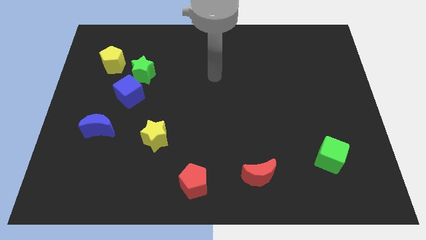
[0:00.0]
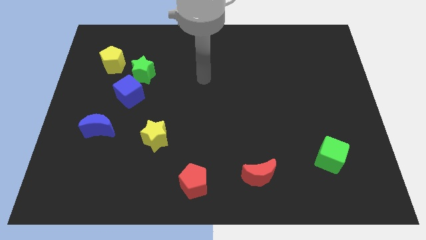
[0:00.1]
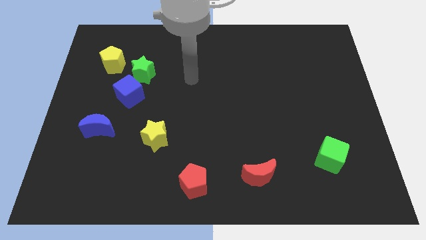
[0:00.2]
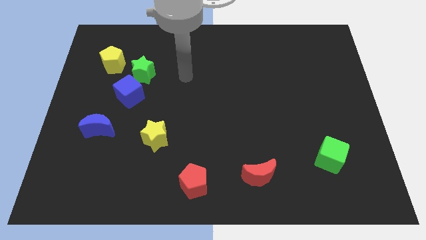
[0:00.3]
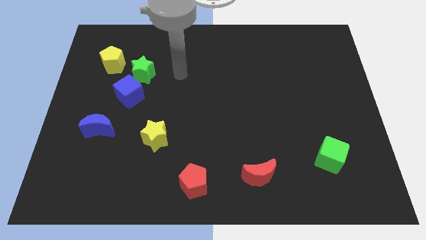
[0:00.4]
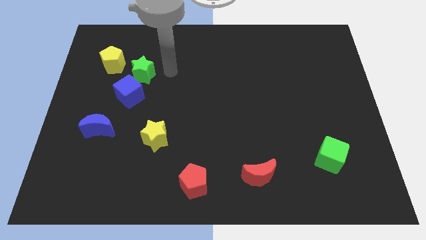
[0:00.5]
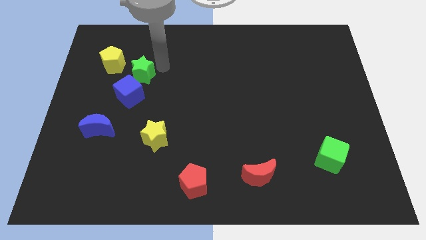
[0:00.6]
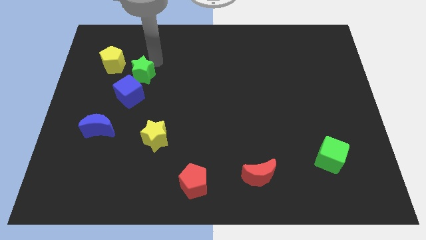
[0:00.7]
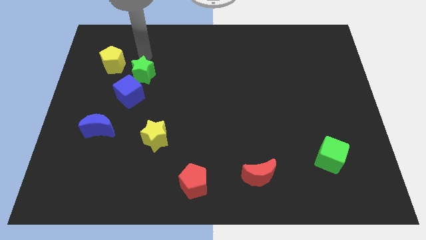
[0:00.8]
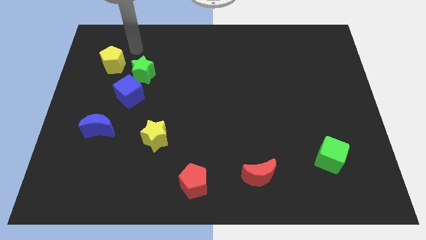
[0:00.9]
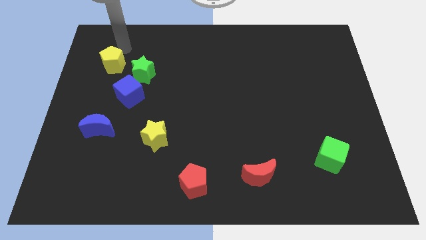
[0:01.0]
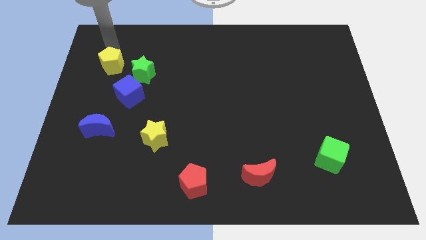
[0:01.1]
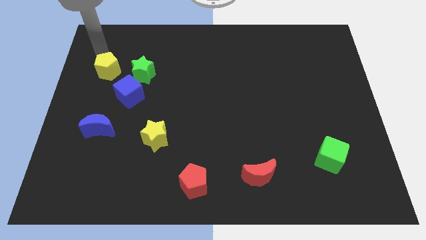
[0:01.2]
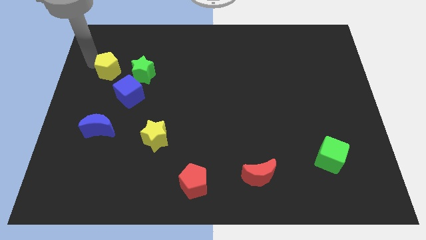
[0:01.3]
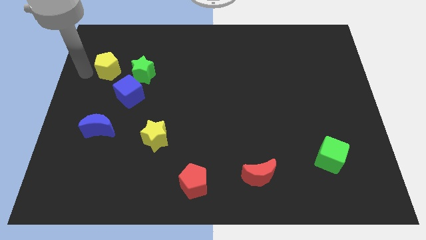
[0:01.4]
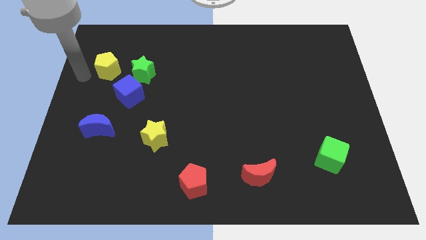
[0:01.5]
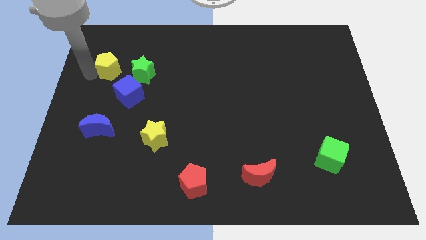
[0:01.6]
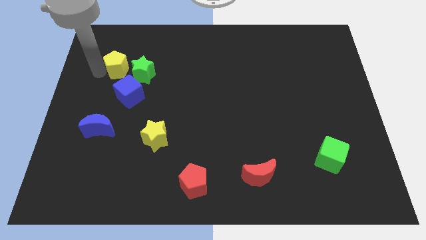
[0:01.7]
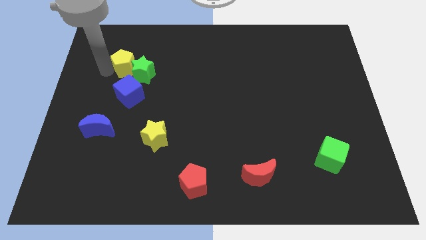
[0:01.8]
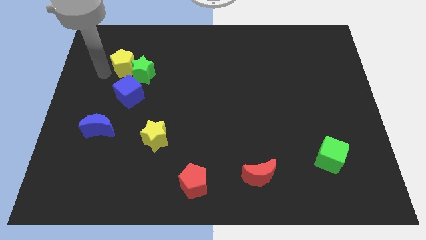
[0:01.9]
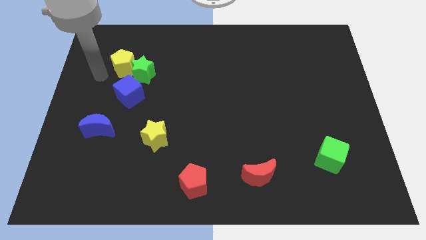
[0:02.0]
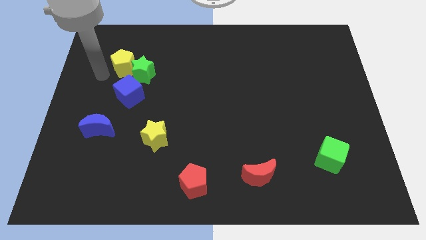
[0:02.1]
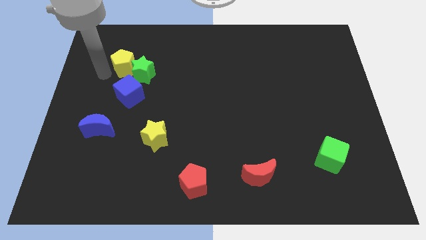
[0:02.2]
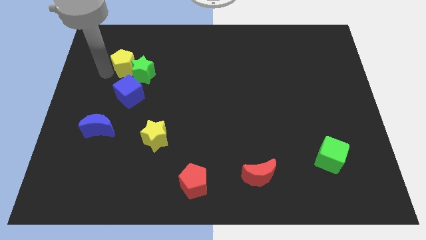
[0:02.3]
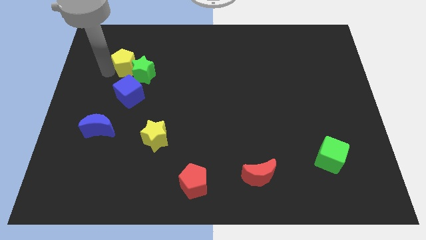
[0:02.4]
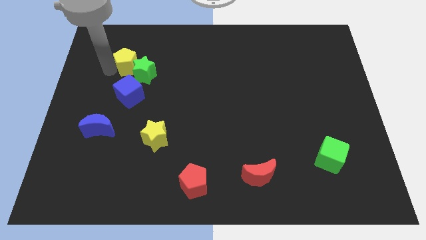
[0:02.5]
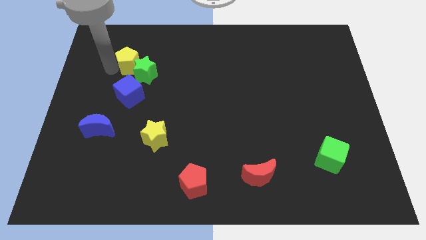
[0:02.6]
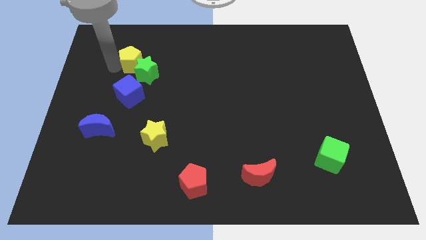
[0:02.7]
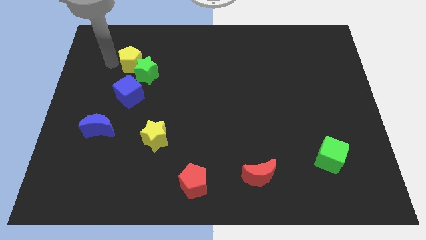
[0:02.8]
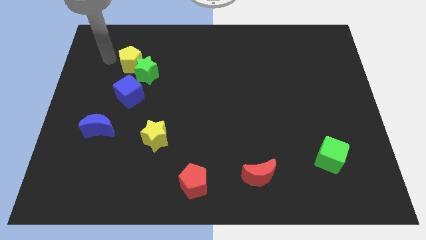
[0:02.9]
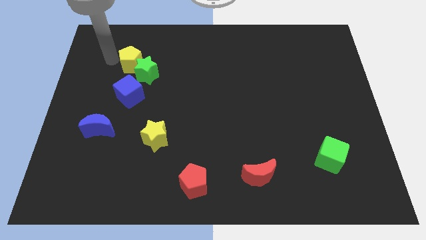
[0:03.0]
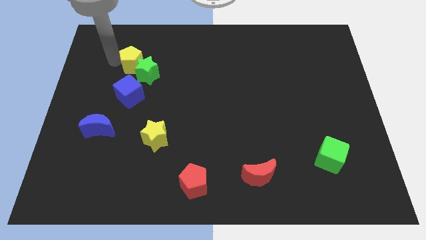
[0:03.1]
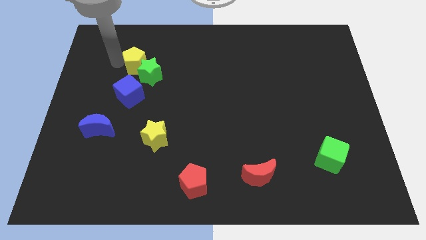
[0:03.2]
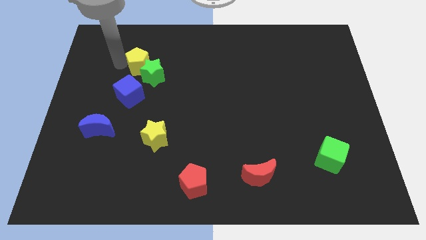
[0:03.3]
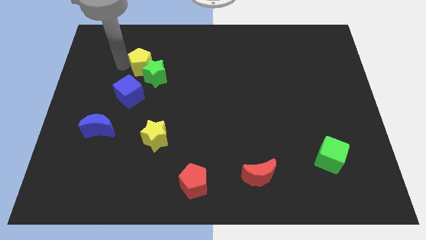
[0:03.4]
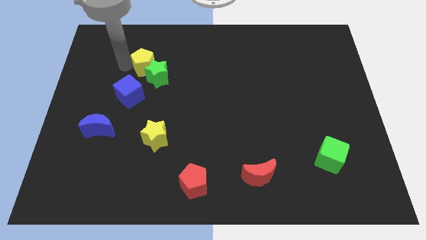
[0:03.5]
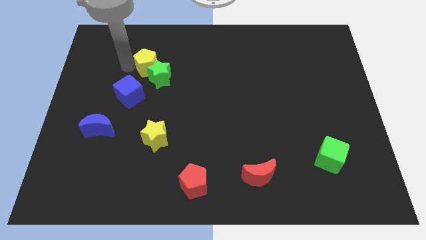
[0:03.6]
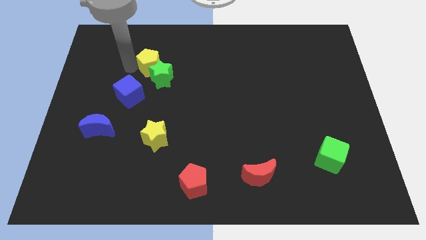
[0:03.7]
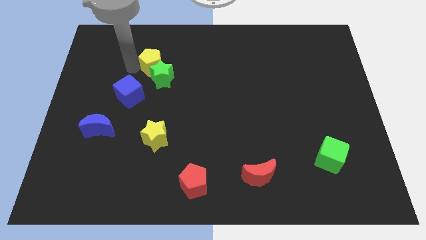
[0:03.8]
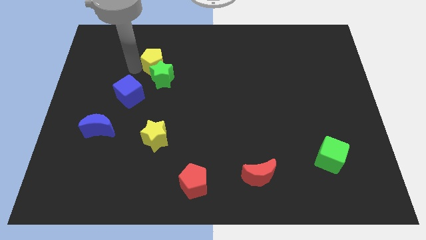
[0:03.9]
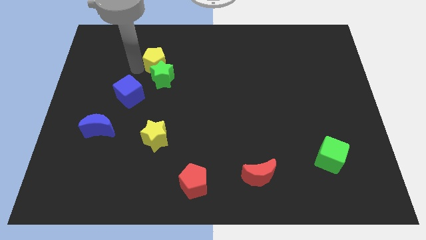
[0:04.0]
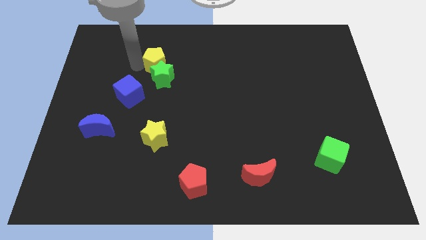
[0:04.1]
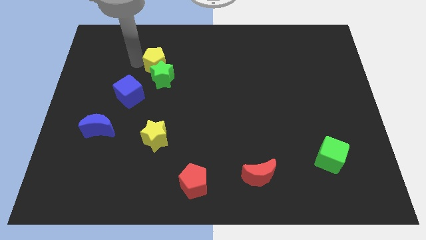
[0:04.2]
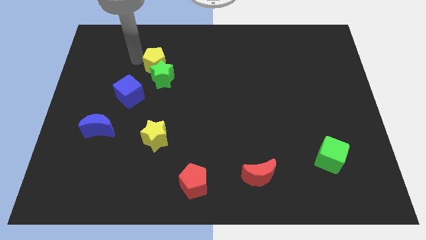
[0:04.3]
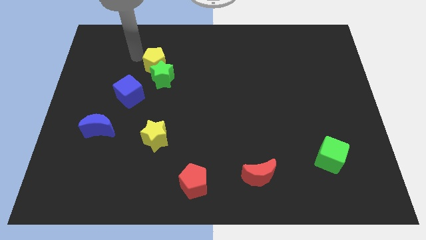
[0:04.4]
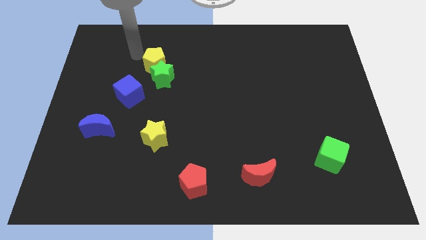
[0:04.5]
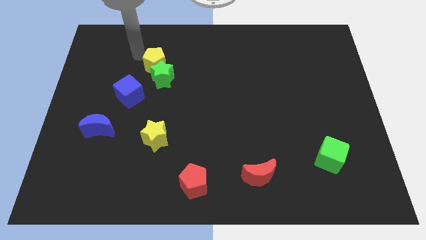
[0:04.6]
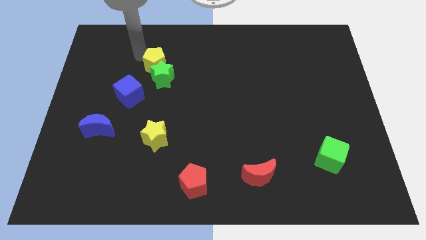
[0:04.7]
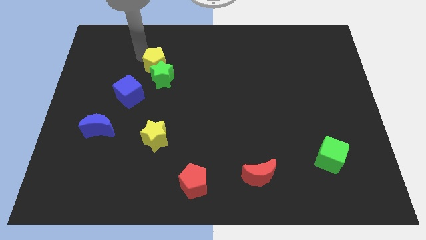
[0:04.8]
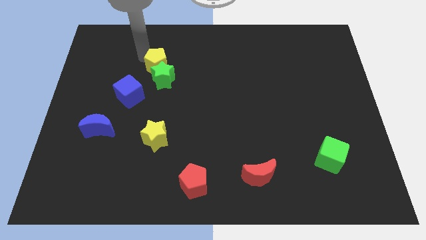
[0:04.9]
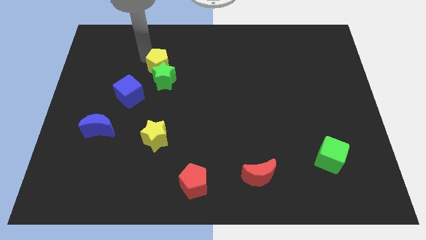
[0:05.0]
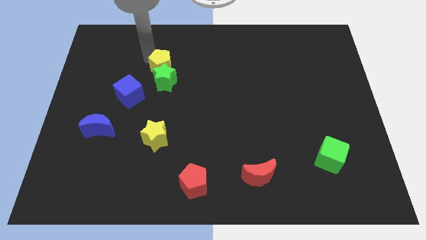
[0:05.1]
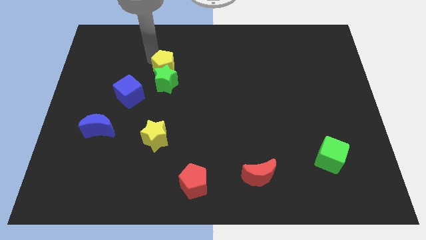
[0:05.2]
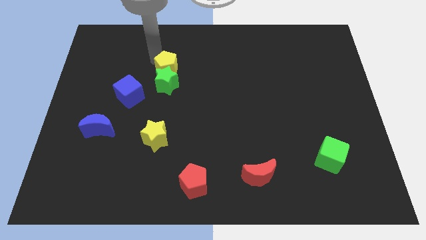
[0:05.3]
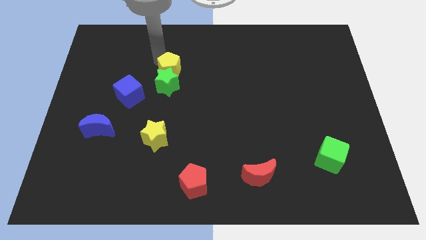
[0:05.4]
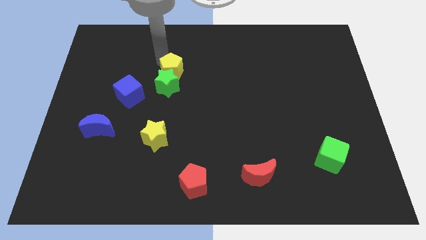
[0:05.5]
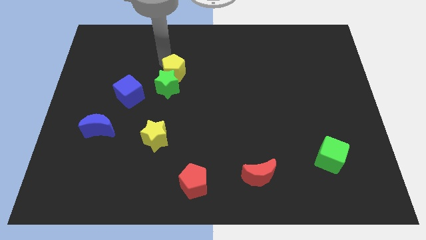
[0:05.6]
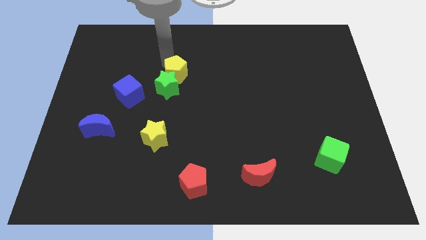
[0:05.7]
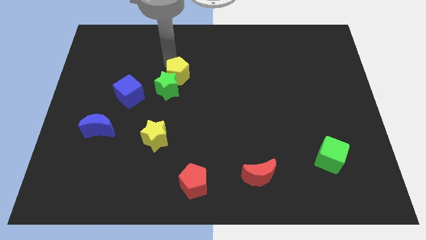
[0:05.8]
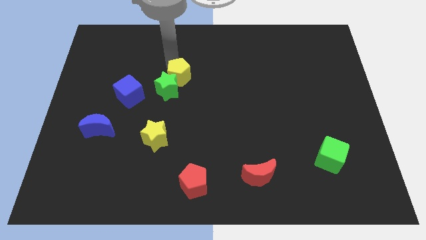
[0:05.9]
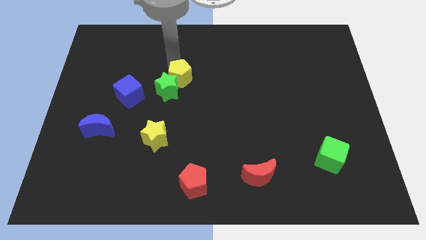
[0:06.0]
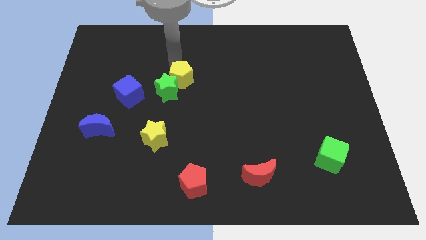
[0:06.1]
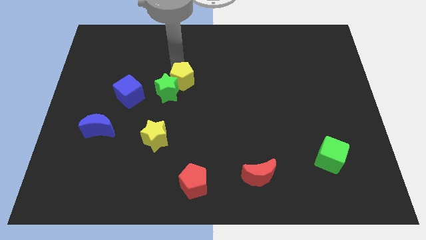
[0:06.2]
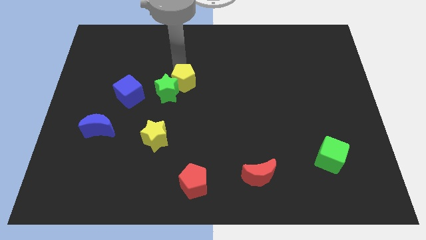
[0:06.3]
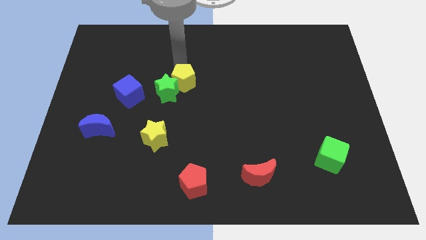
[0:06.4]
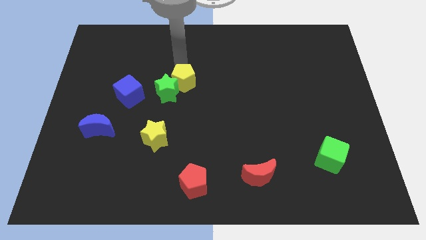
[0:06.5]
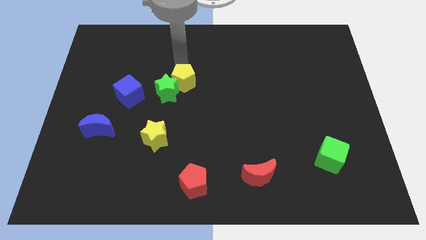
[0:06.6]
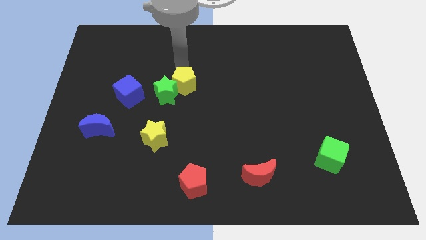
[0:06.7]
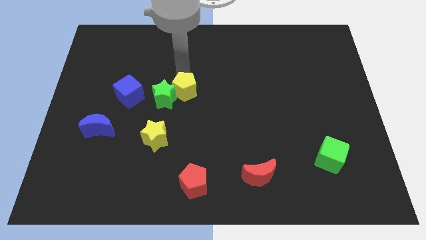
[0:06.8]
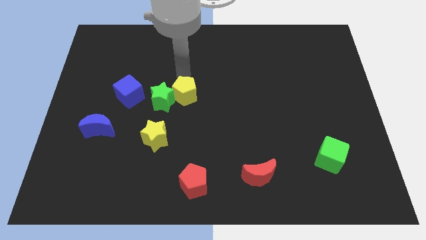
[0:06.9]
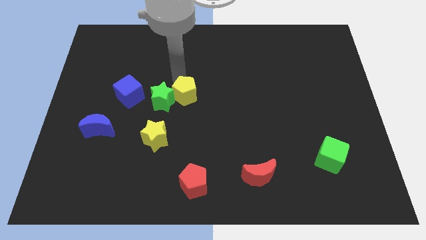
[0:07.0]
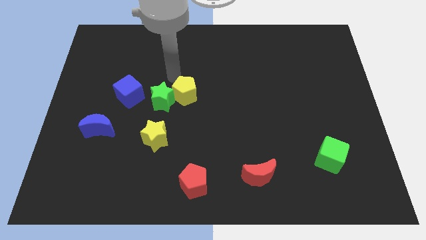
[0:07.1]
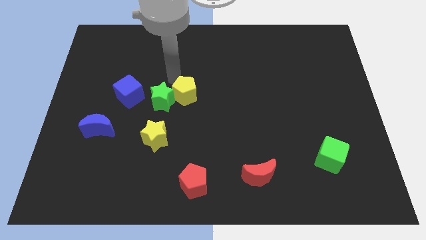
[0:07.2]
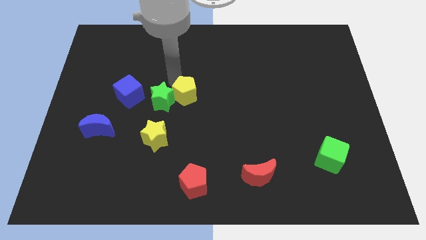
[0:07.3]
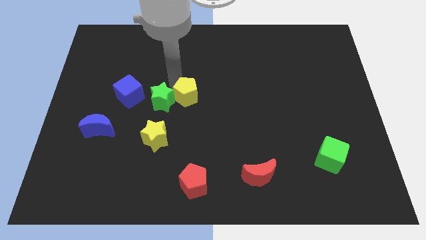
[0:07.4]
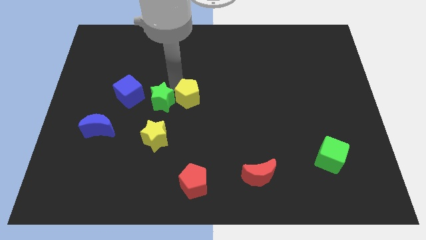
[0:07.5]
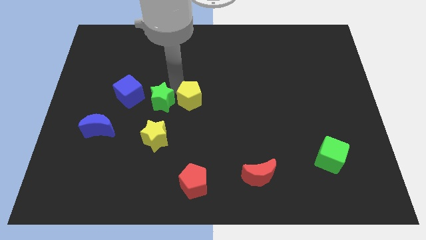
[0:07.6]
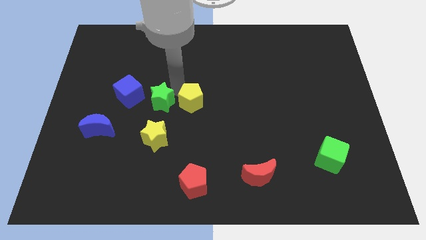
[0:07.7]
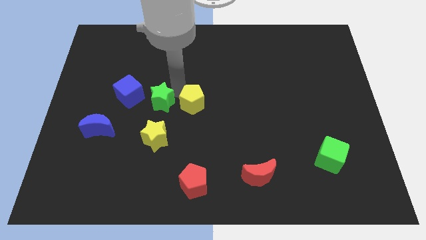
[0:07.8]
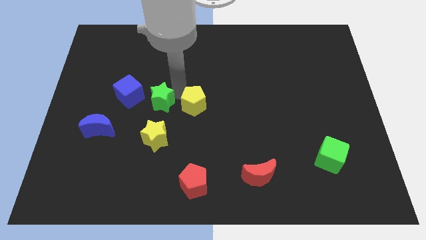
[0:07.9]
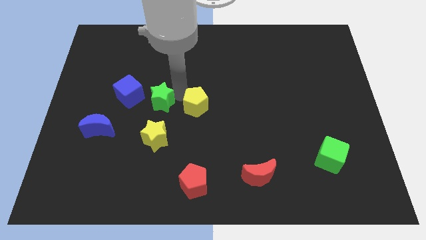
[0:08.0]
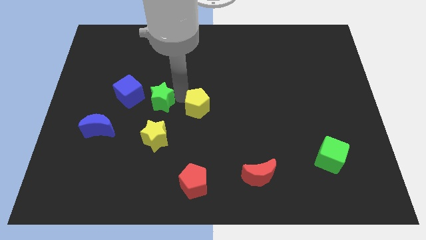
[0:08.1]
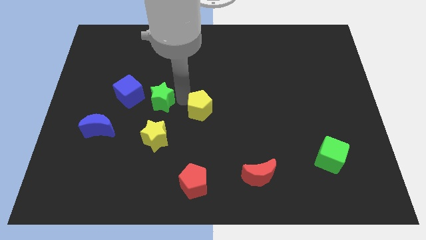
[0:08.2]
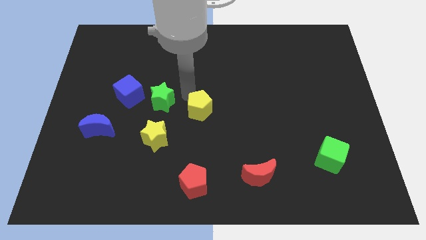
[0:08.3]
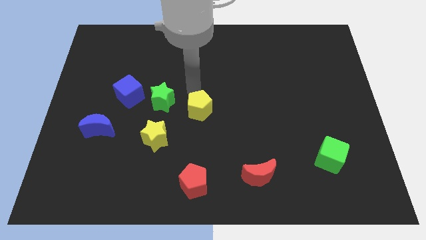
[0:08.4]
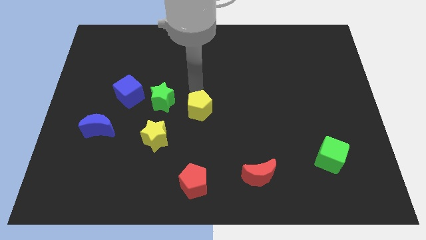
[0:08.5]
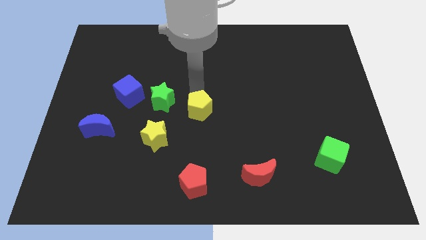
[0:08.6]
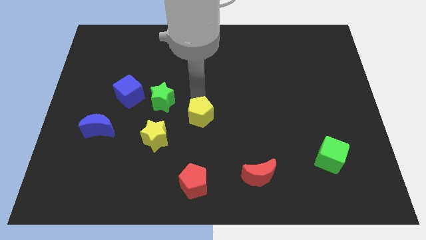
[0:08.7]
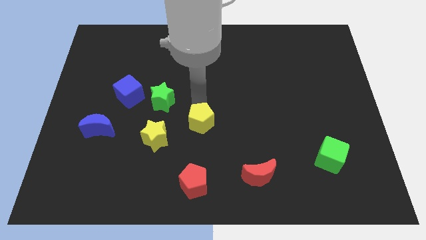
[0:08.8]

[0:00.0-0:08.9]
push the yellow pentagon just right of the yellow star
